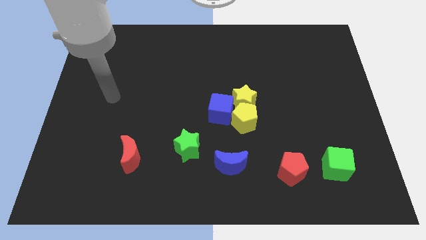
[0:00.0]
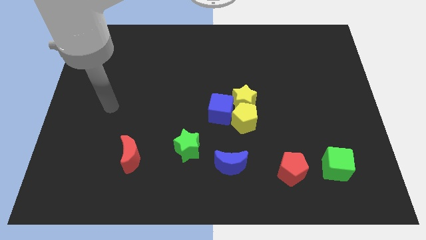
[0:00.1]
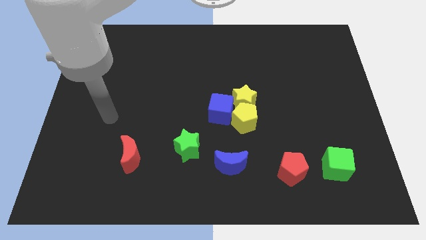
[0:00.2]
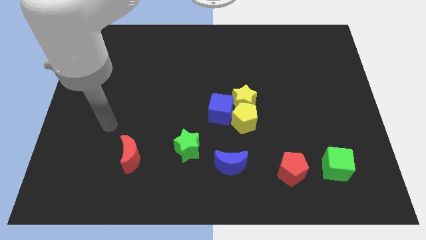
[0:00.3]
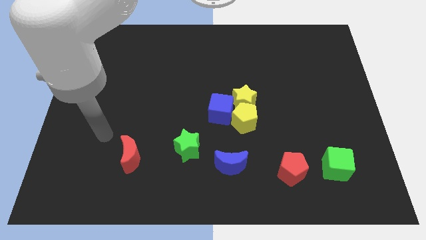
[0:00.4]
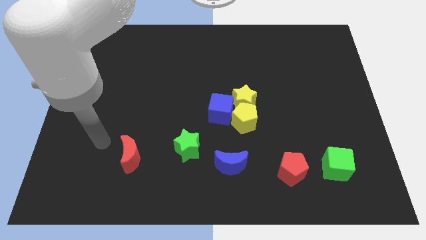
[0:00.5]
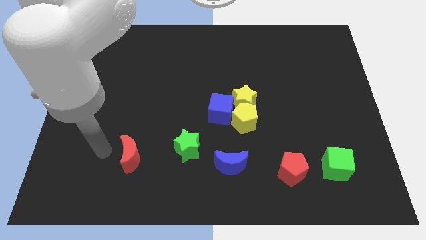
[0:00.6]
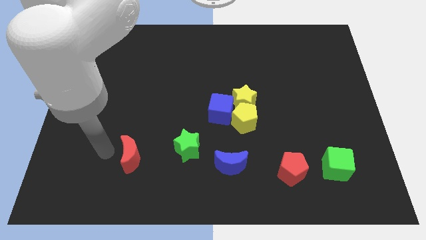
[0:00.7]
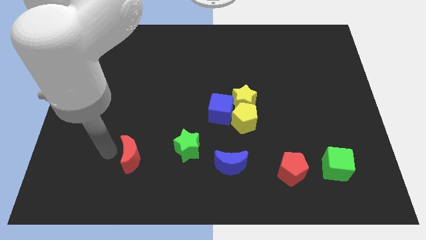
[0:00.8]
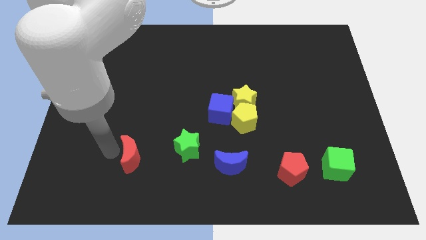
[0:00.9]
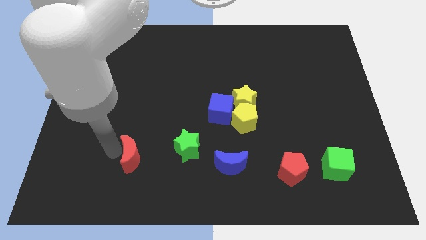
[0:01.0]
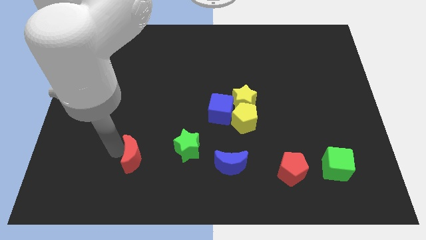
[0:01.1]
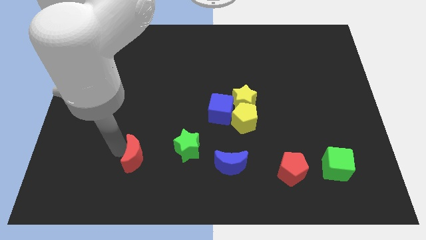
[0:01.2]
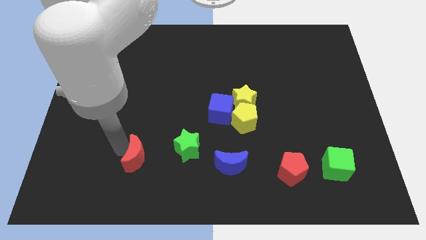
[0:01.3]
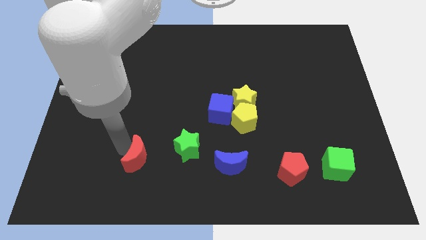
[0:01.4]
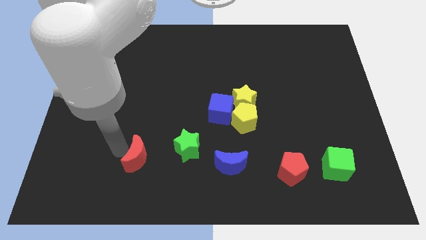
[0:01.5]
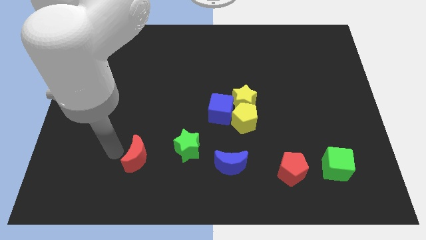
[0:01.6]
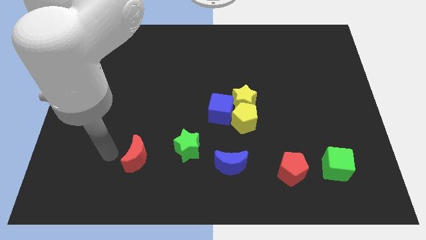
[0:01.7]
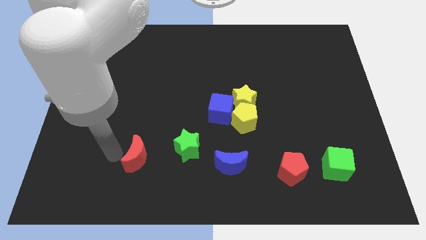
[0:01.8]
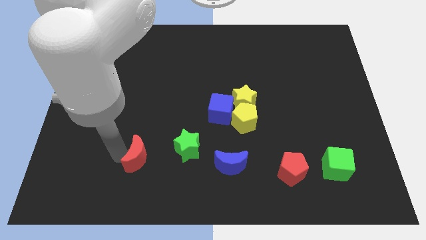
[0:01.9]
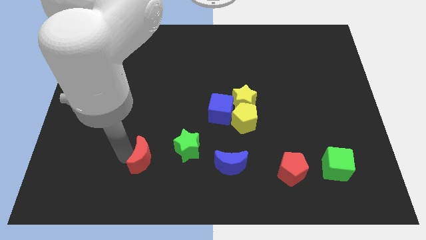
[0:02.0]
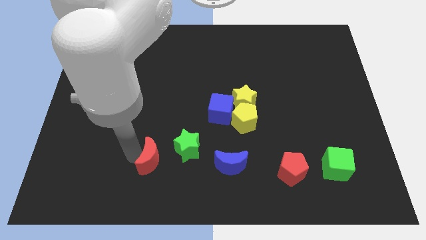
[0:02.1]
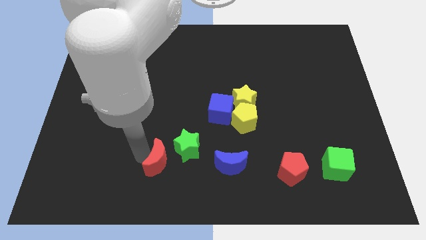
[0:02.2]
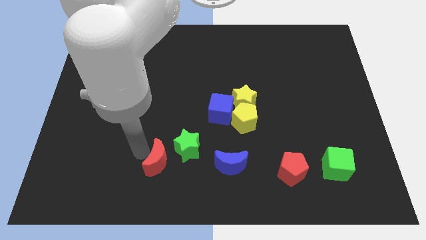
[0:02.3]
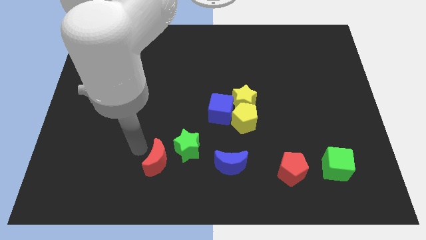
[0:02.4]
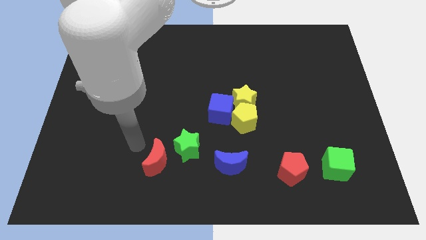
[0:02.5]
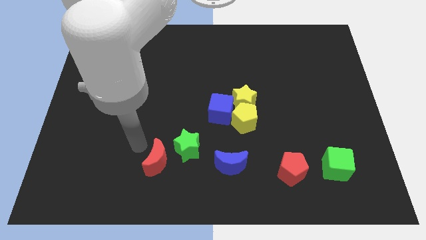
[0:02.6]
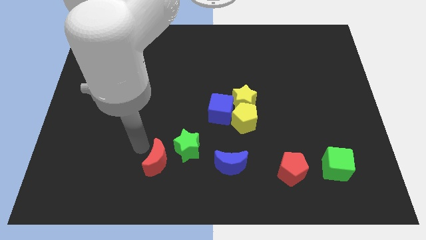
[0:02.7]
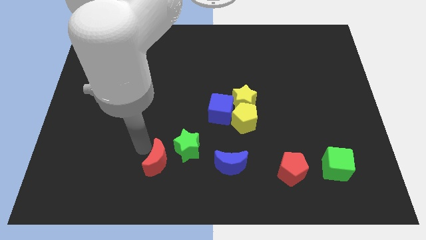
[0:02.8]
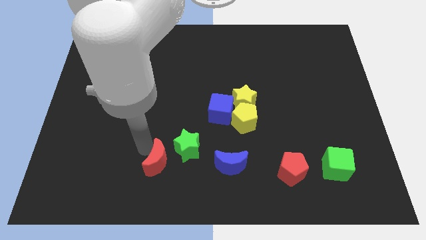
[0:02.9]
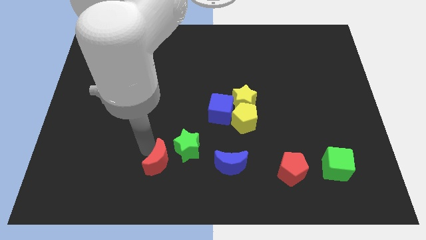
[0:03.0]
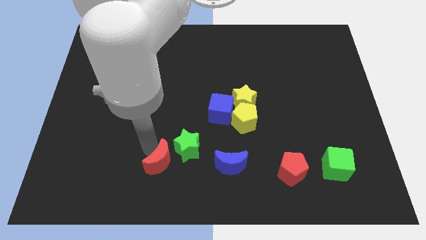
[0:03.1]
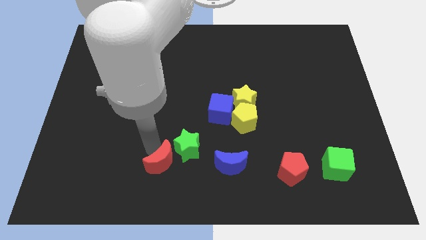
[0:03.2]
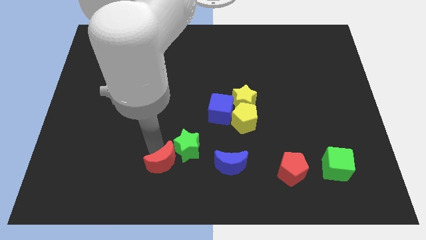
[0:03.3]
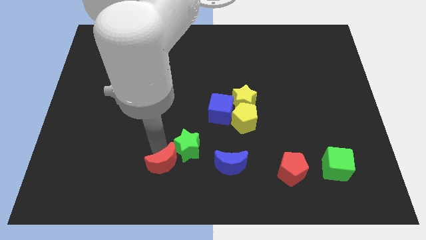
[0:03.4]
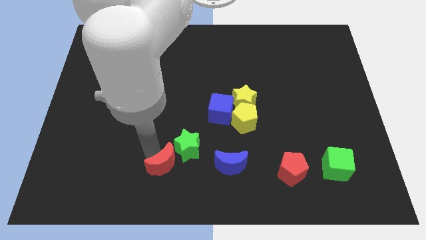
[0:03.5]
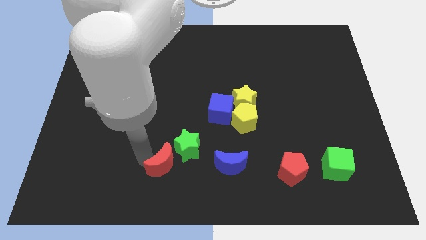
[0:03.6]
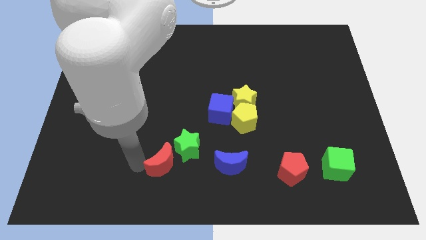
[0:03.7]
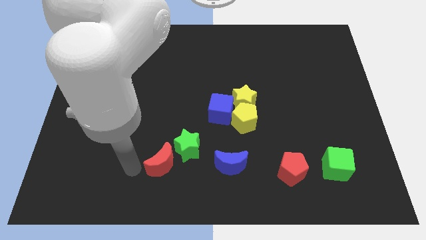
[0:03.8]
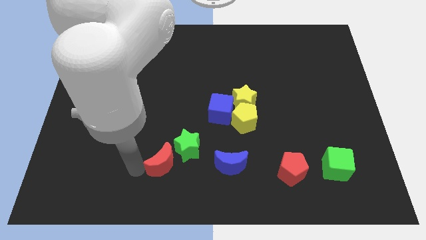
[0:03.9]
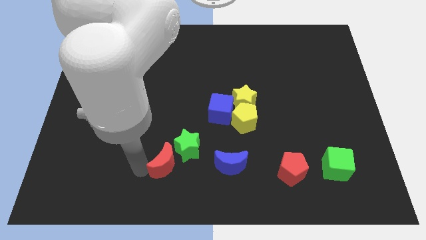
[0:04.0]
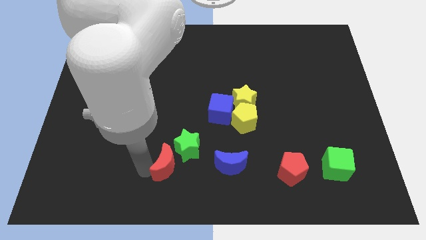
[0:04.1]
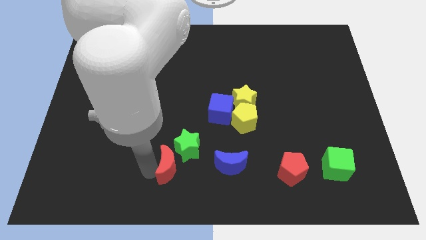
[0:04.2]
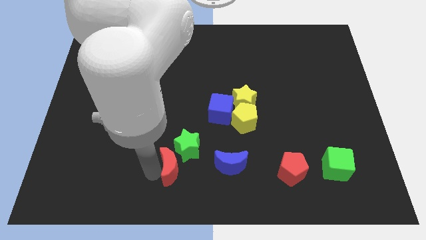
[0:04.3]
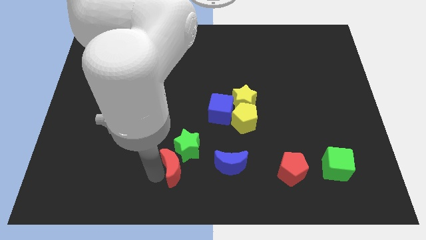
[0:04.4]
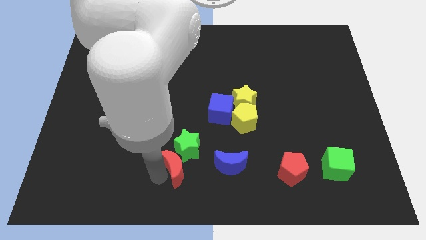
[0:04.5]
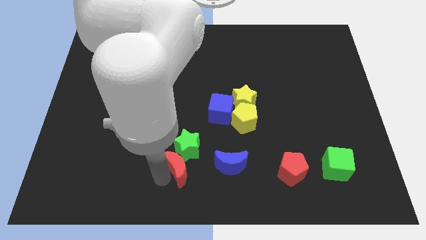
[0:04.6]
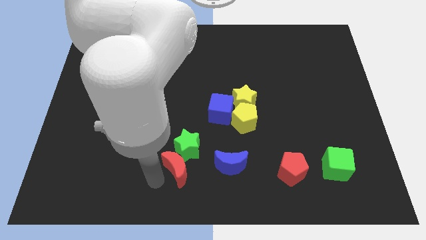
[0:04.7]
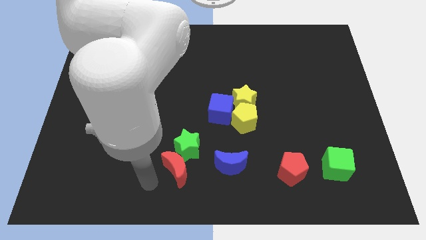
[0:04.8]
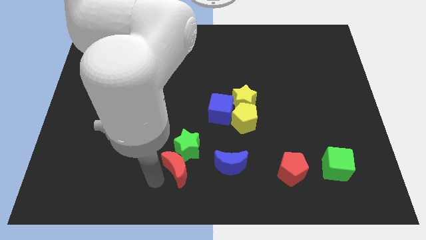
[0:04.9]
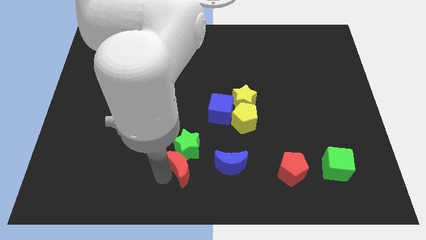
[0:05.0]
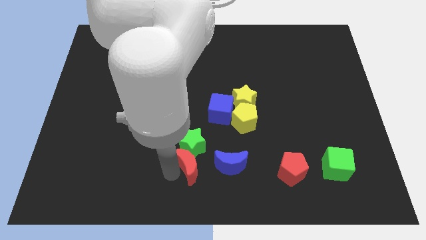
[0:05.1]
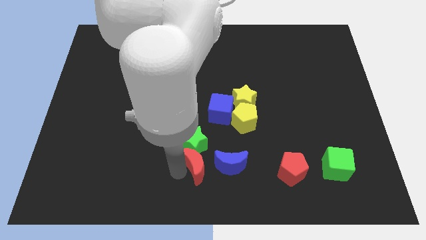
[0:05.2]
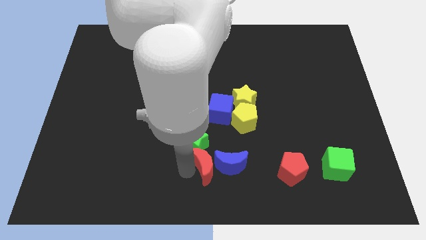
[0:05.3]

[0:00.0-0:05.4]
put the red moon to the bottom of the blue cube

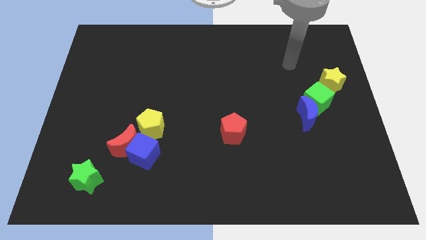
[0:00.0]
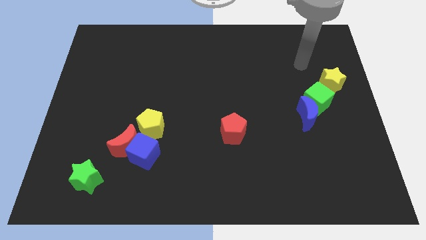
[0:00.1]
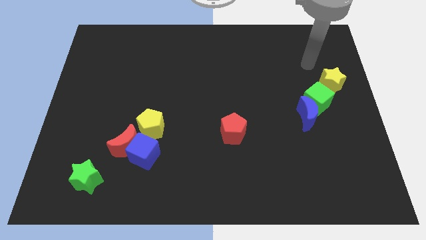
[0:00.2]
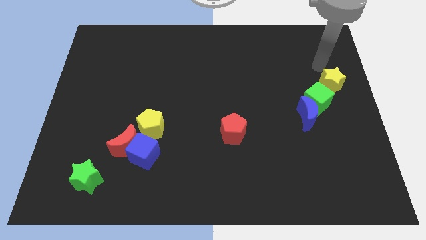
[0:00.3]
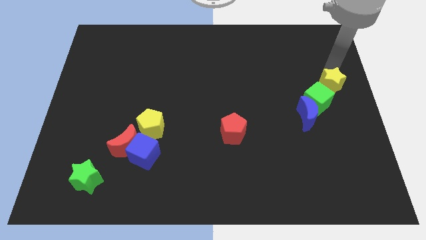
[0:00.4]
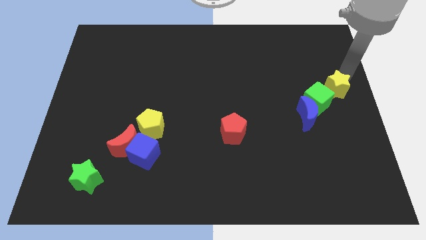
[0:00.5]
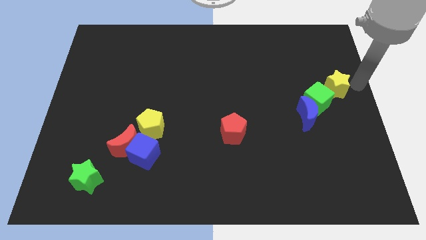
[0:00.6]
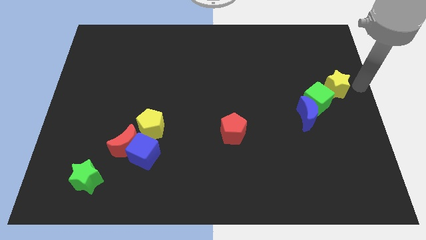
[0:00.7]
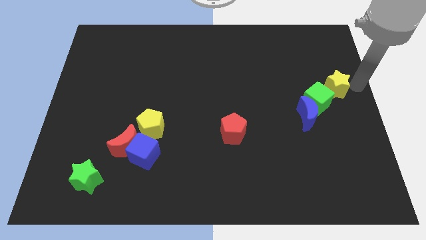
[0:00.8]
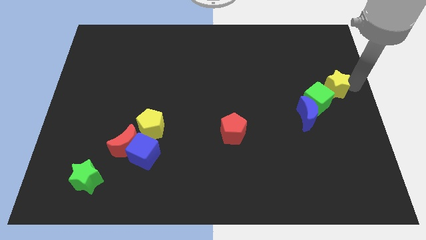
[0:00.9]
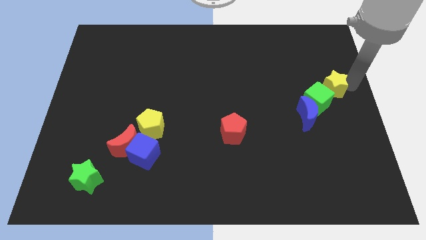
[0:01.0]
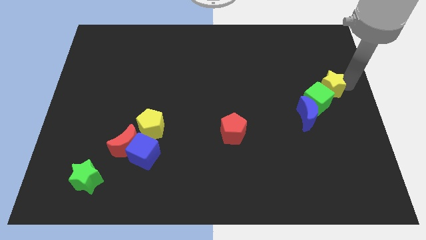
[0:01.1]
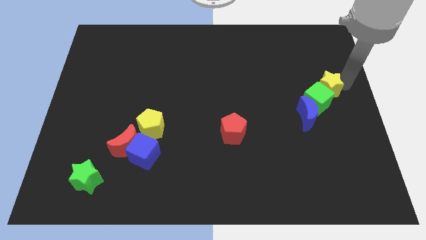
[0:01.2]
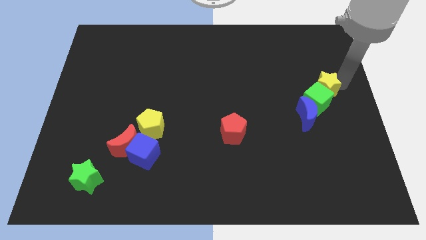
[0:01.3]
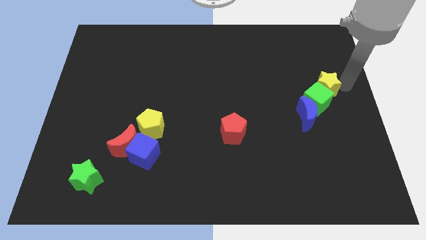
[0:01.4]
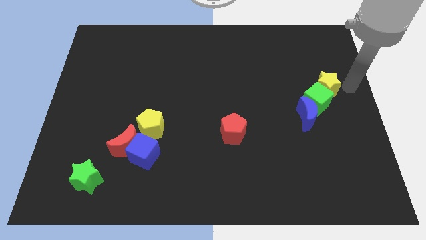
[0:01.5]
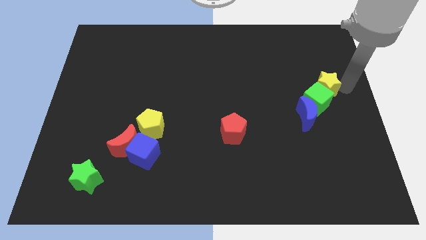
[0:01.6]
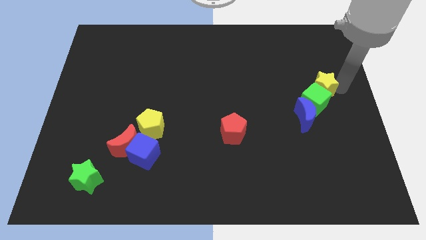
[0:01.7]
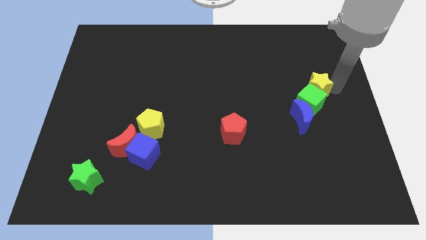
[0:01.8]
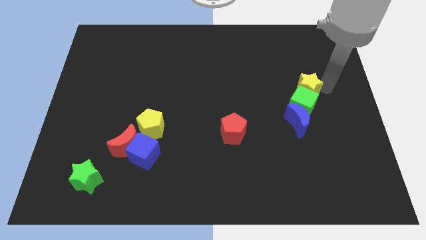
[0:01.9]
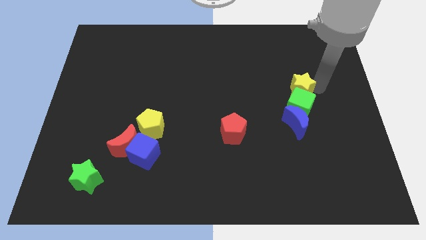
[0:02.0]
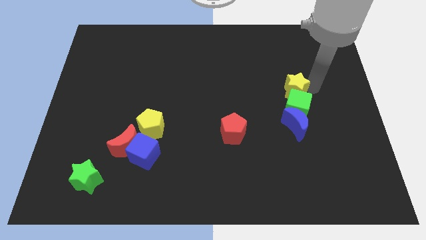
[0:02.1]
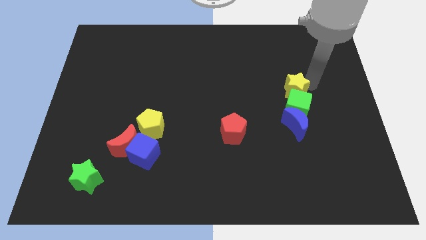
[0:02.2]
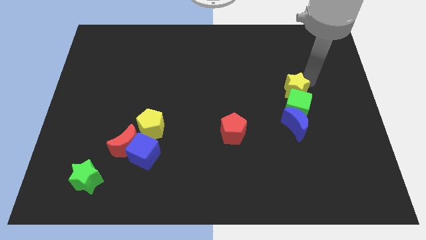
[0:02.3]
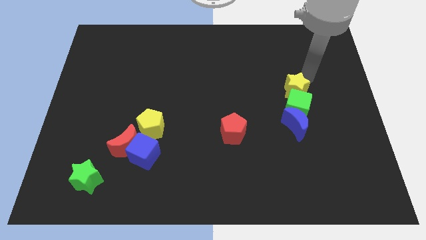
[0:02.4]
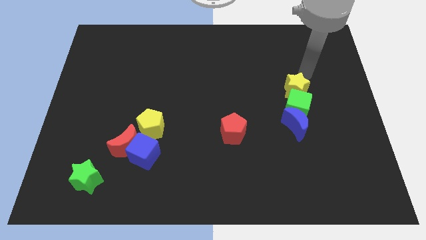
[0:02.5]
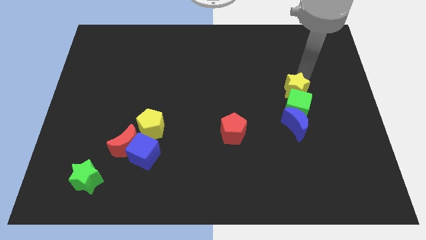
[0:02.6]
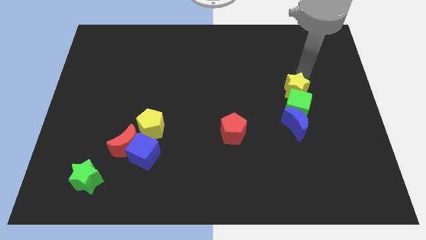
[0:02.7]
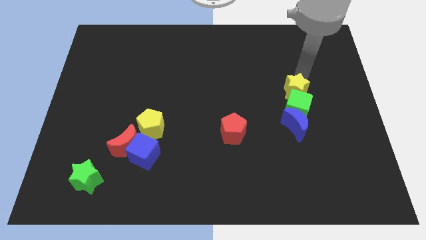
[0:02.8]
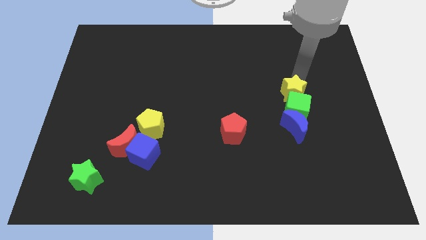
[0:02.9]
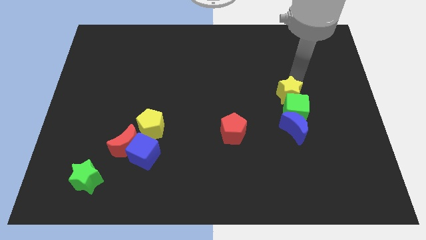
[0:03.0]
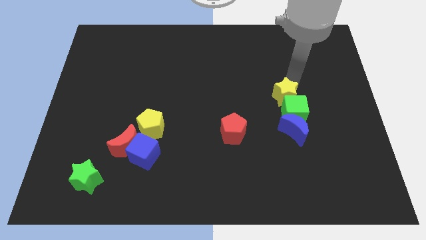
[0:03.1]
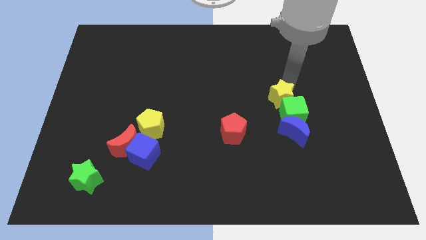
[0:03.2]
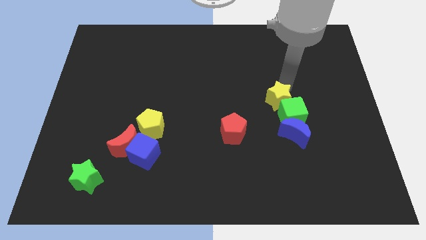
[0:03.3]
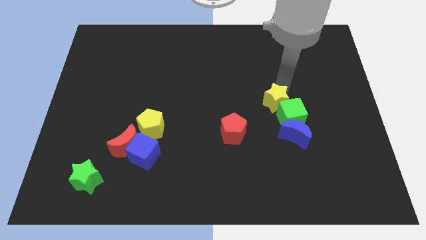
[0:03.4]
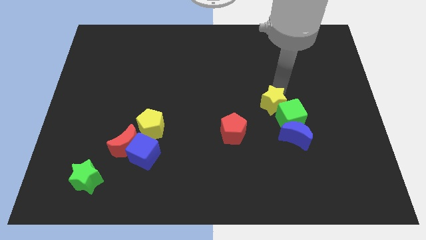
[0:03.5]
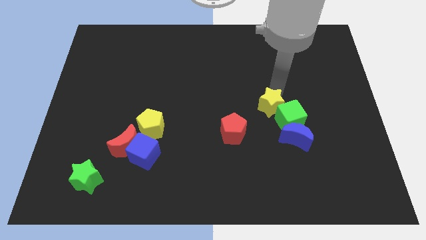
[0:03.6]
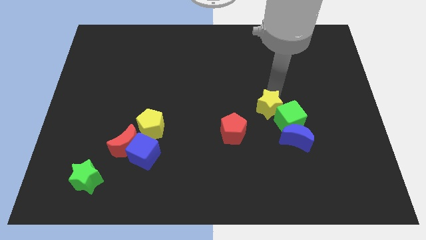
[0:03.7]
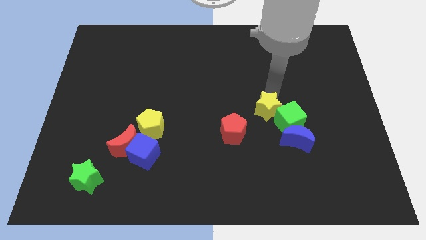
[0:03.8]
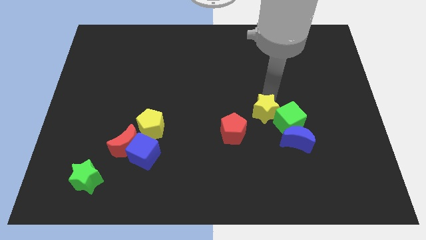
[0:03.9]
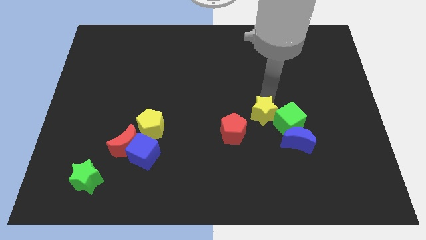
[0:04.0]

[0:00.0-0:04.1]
push the yellow star to the right side of the red pentagon
